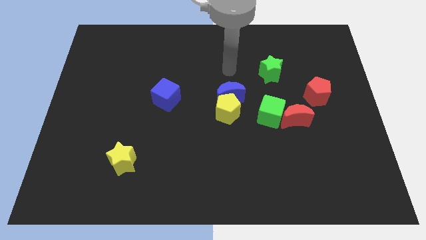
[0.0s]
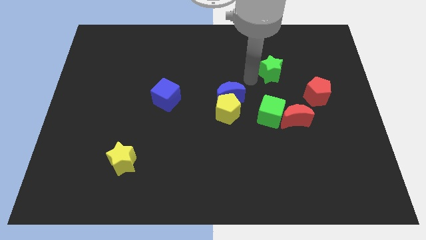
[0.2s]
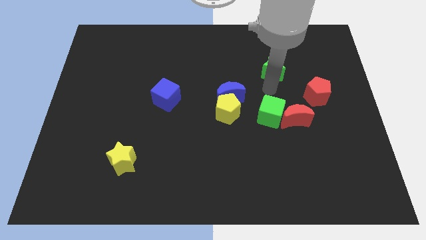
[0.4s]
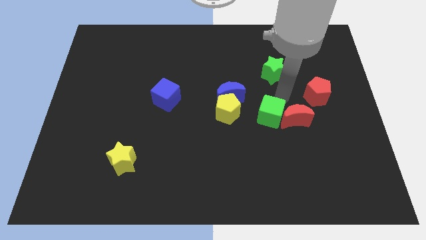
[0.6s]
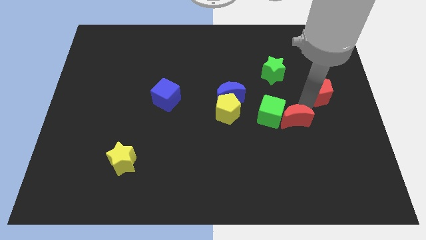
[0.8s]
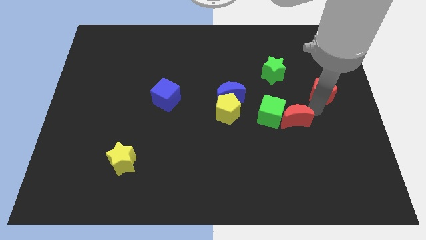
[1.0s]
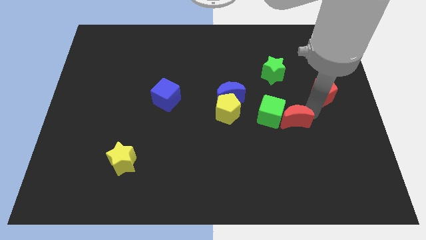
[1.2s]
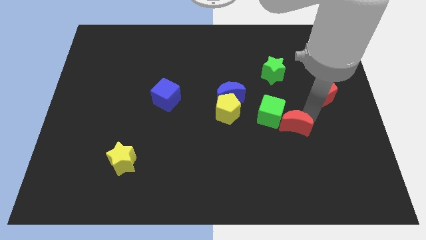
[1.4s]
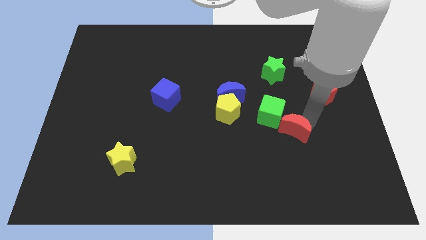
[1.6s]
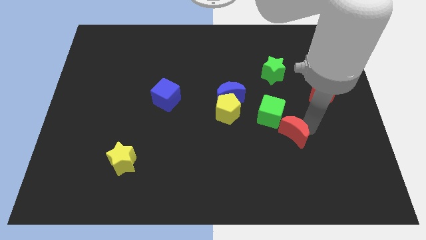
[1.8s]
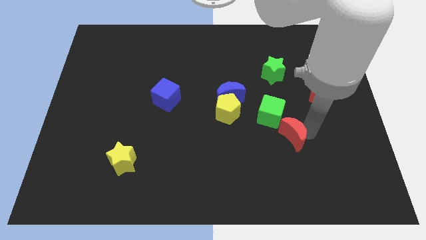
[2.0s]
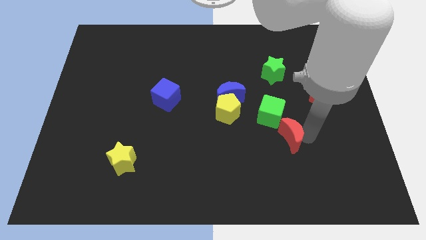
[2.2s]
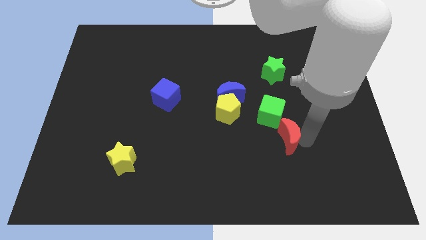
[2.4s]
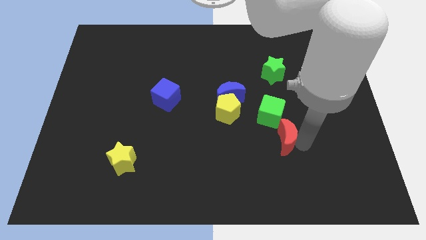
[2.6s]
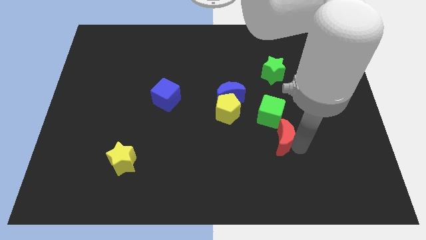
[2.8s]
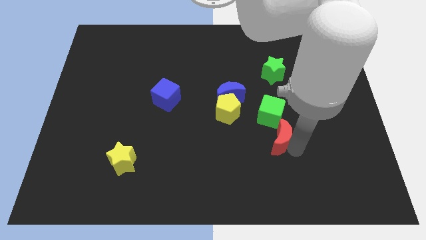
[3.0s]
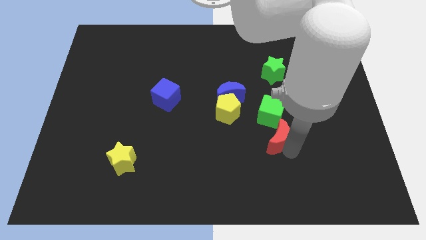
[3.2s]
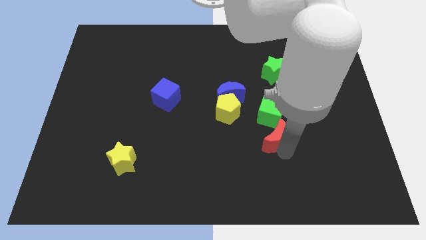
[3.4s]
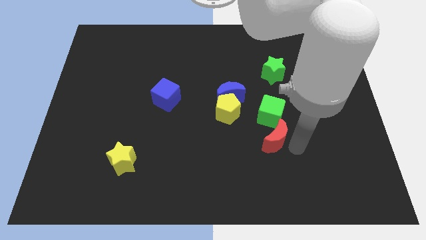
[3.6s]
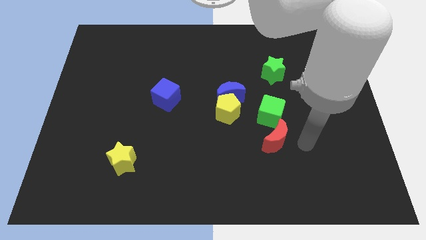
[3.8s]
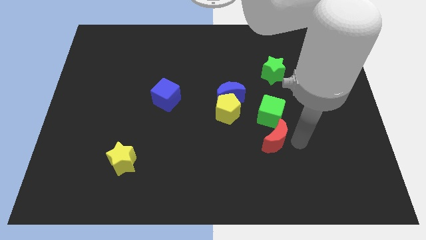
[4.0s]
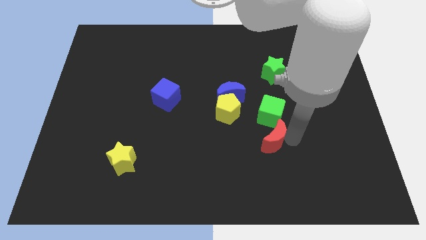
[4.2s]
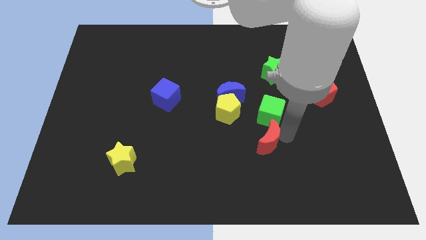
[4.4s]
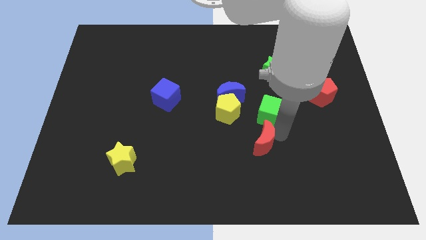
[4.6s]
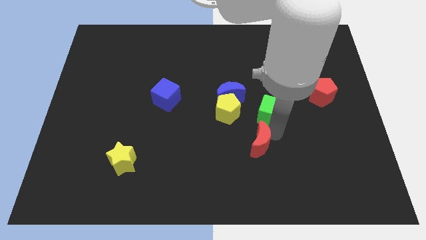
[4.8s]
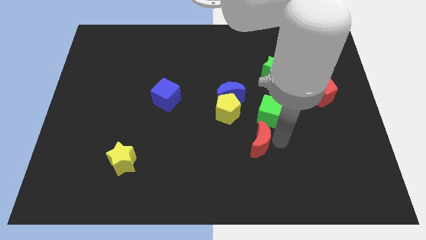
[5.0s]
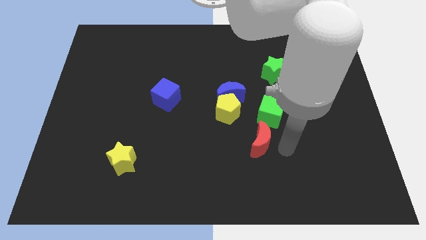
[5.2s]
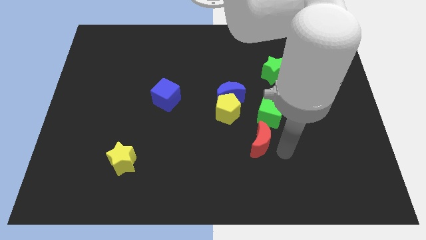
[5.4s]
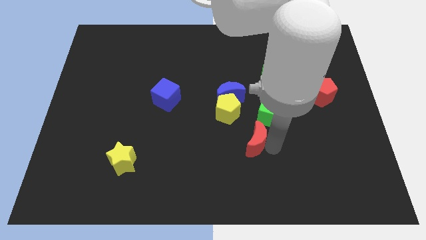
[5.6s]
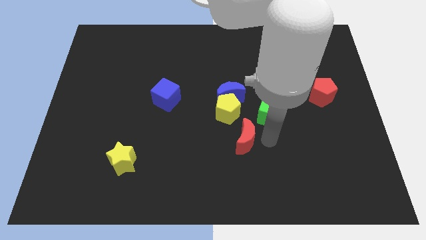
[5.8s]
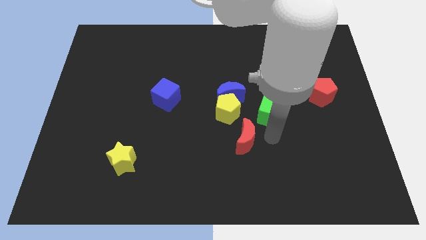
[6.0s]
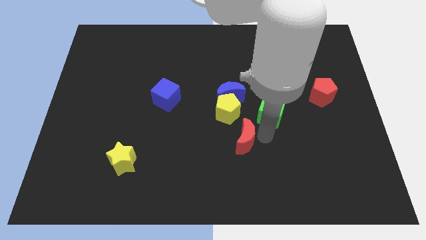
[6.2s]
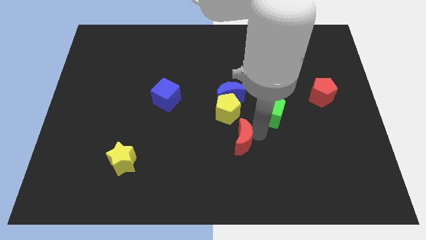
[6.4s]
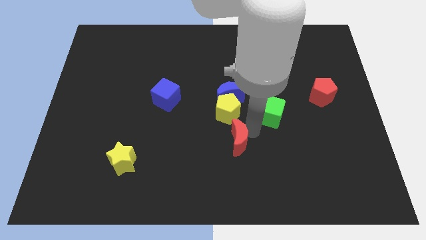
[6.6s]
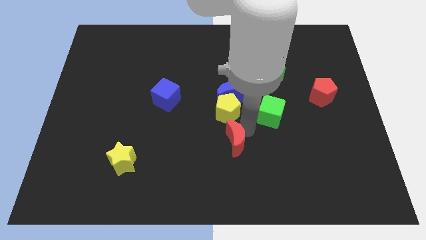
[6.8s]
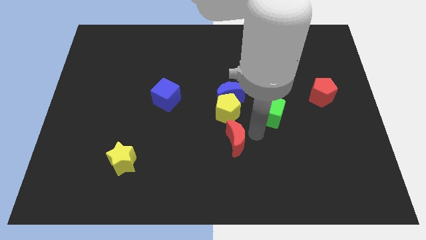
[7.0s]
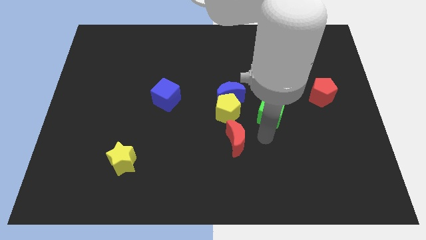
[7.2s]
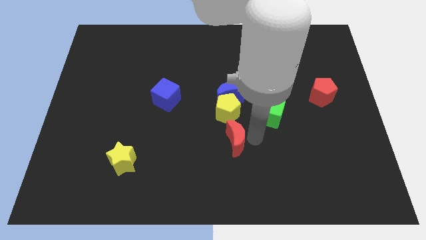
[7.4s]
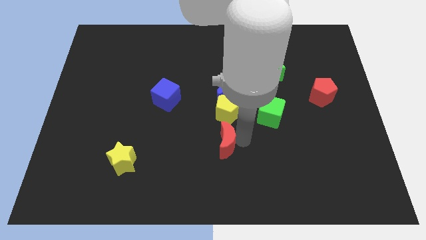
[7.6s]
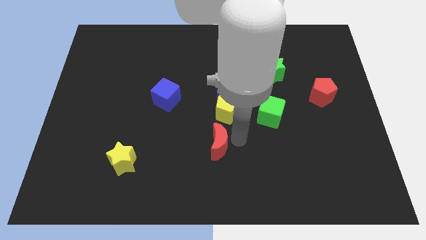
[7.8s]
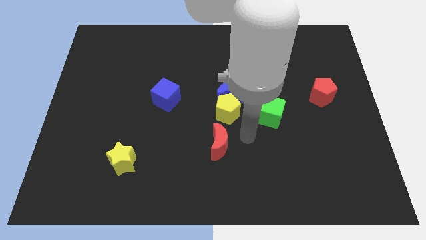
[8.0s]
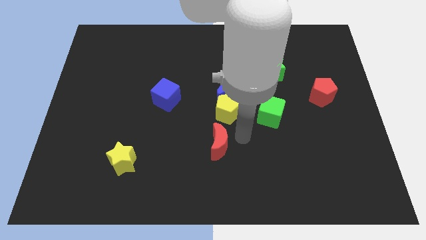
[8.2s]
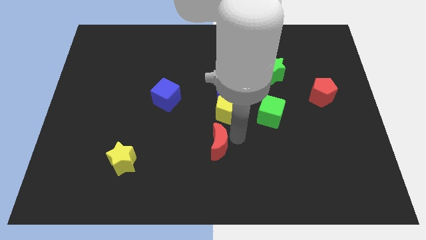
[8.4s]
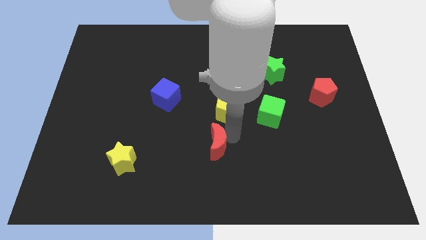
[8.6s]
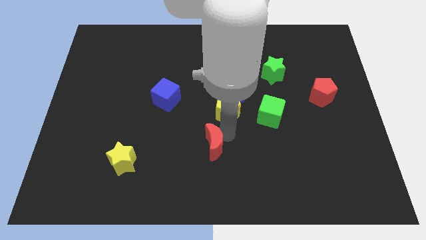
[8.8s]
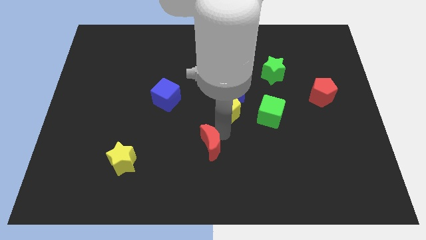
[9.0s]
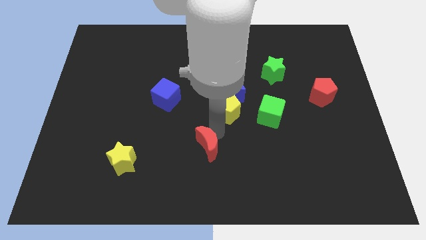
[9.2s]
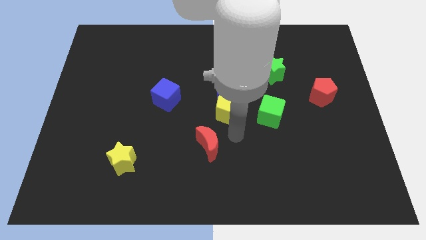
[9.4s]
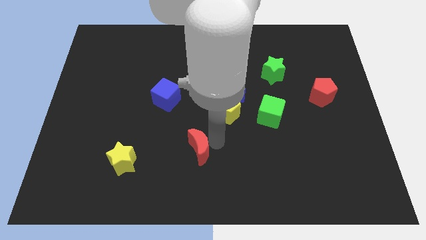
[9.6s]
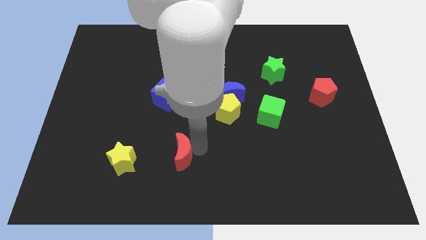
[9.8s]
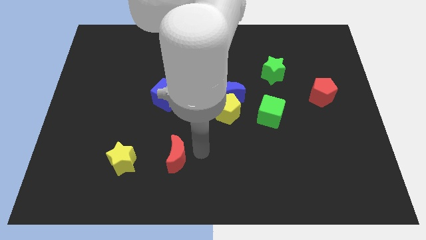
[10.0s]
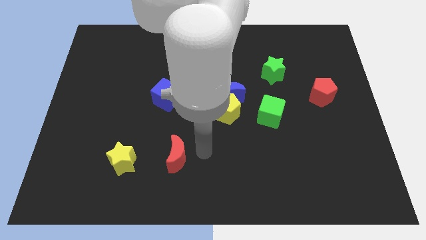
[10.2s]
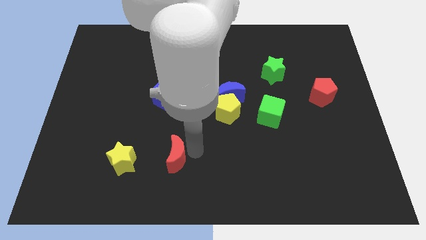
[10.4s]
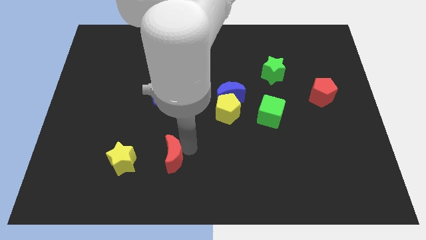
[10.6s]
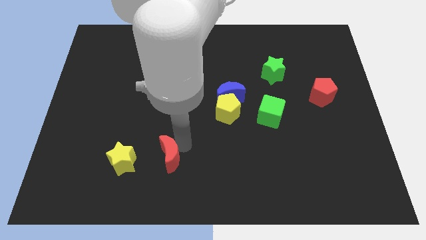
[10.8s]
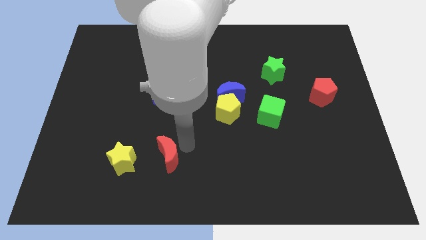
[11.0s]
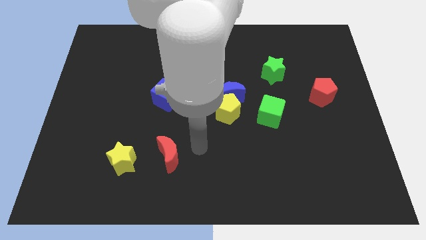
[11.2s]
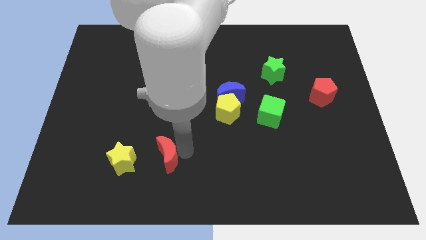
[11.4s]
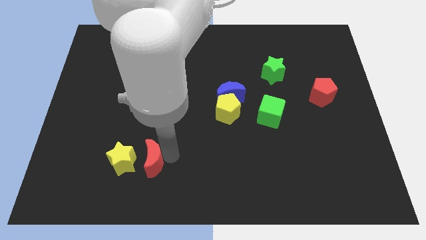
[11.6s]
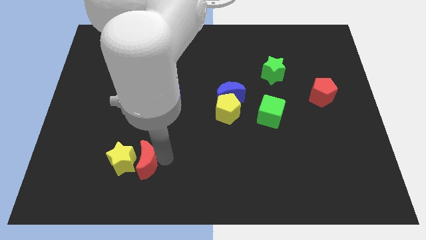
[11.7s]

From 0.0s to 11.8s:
put the red moon close to the yellow star
